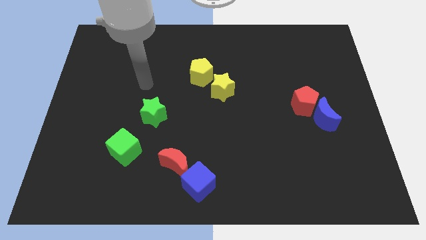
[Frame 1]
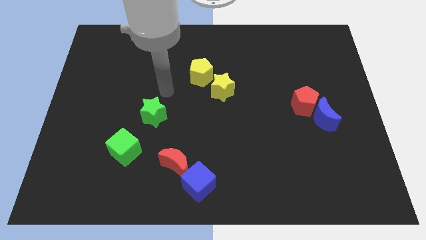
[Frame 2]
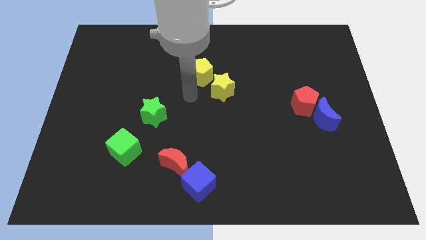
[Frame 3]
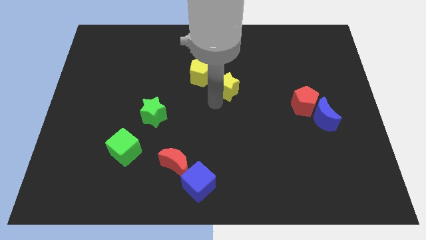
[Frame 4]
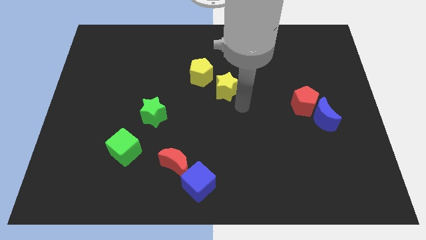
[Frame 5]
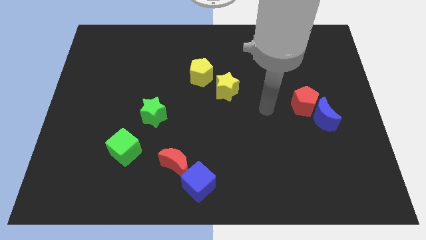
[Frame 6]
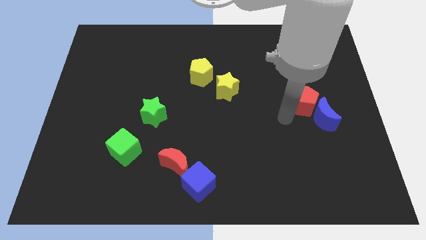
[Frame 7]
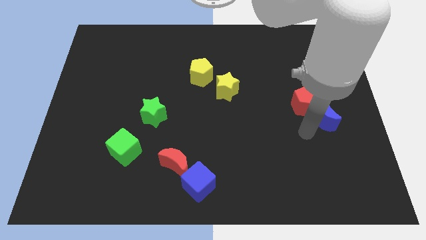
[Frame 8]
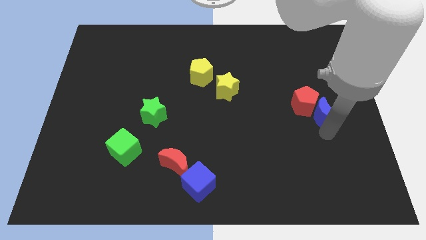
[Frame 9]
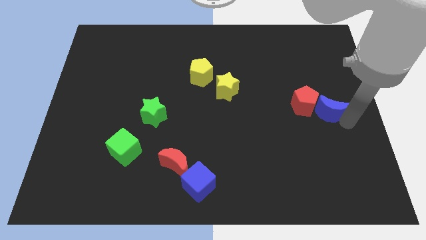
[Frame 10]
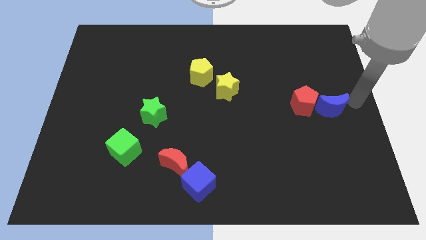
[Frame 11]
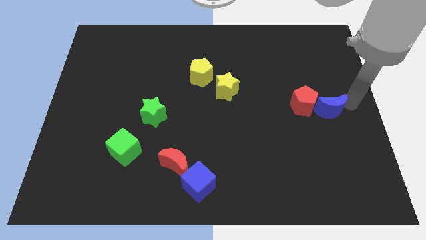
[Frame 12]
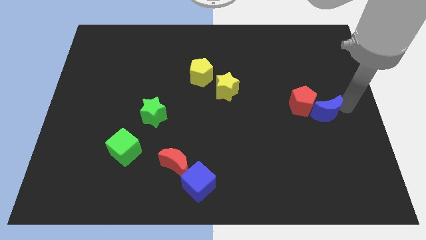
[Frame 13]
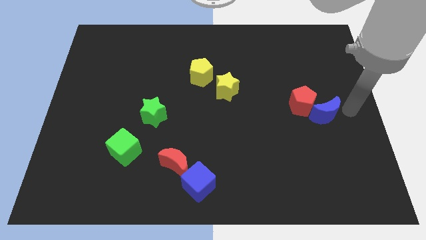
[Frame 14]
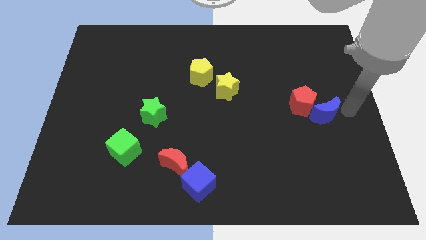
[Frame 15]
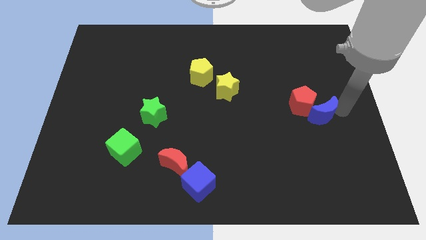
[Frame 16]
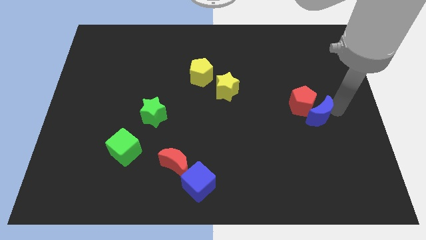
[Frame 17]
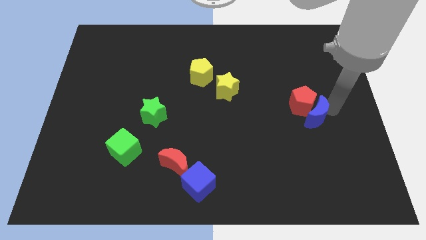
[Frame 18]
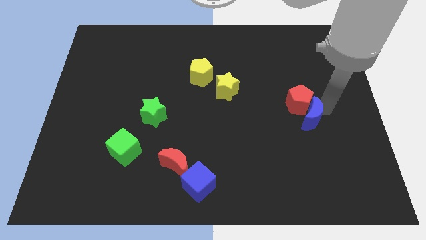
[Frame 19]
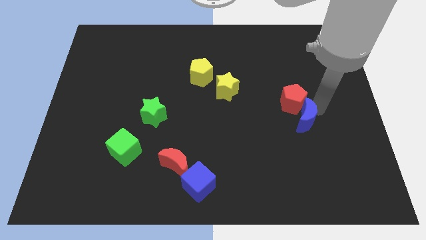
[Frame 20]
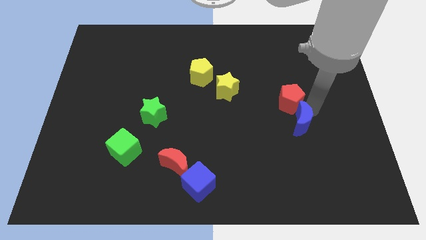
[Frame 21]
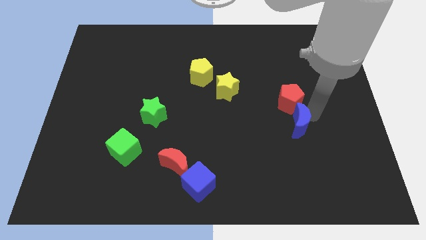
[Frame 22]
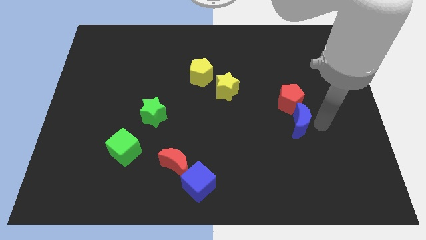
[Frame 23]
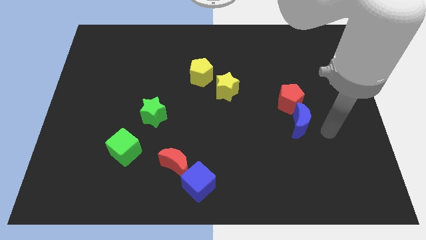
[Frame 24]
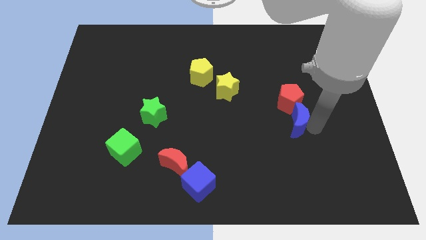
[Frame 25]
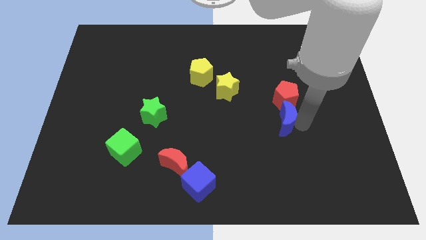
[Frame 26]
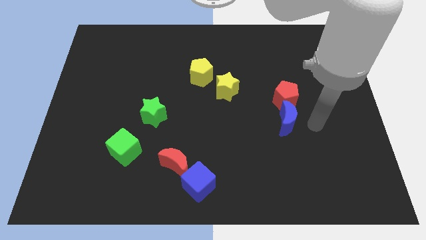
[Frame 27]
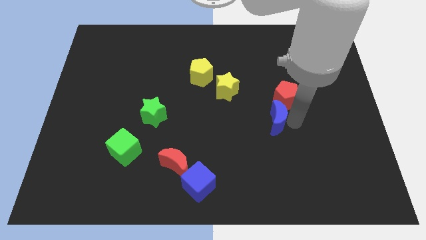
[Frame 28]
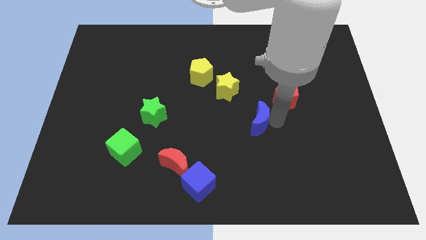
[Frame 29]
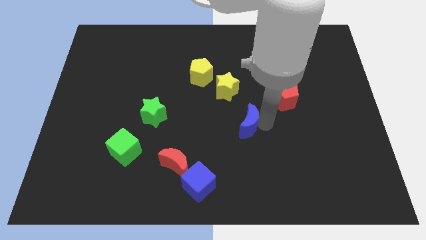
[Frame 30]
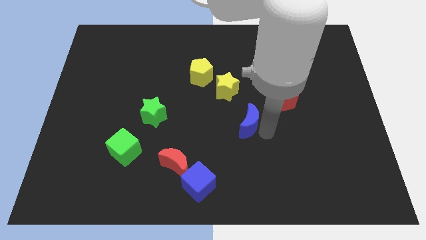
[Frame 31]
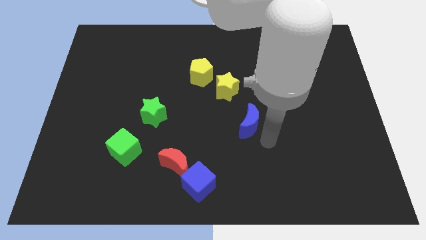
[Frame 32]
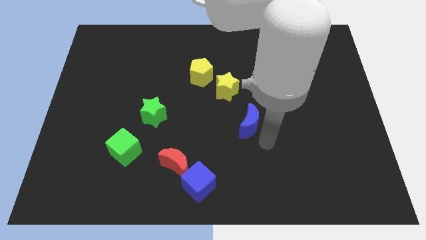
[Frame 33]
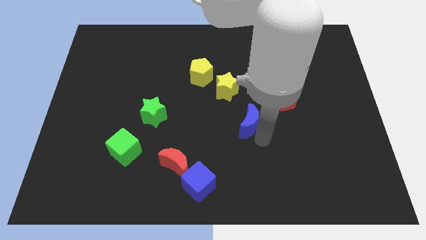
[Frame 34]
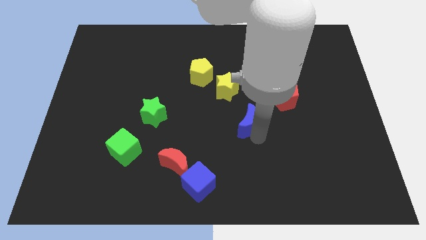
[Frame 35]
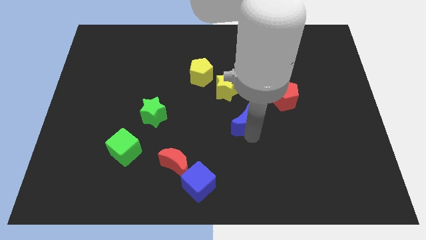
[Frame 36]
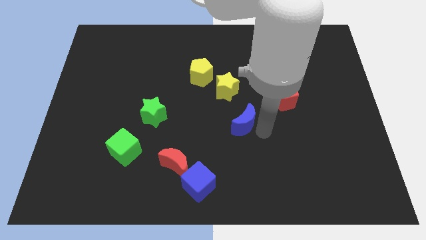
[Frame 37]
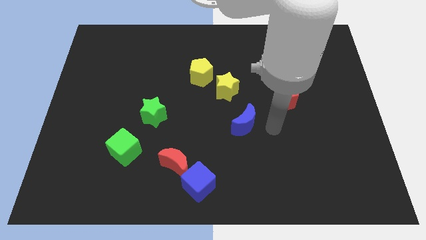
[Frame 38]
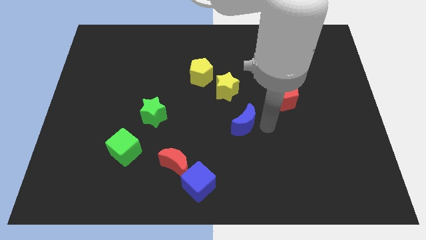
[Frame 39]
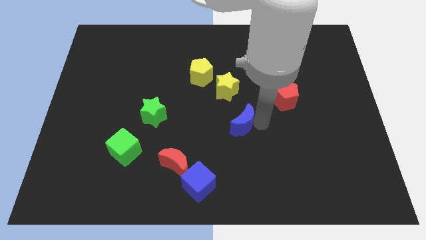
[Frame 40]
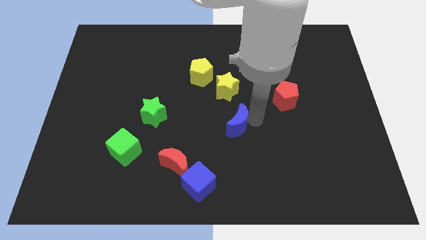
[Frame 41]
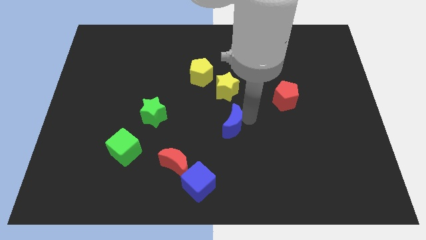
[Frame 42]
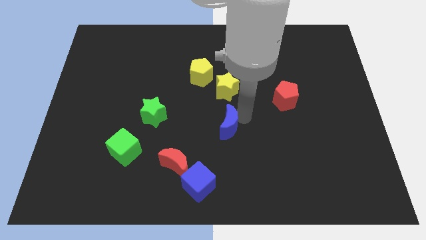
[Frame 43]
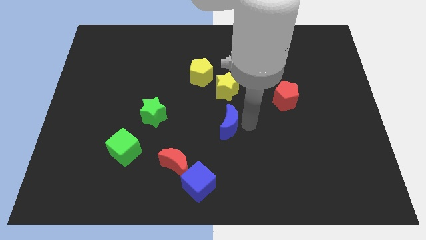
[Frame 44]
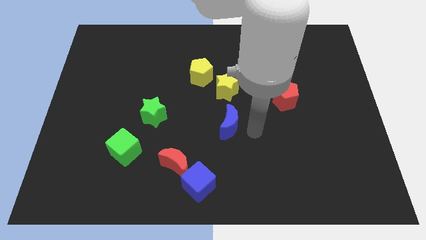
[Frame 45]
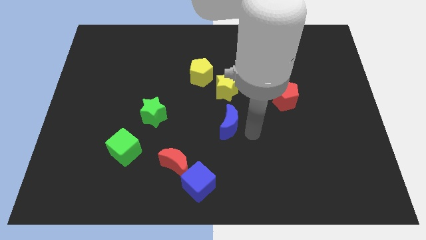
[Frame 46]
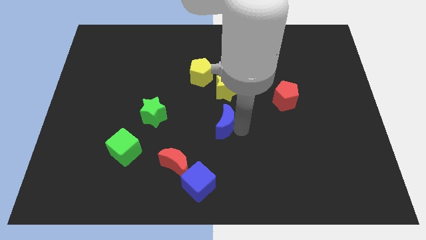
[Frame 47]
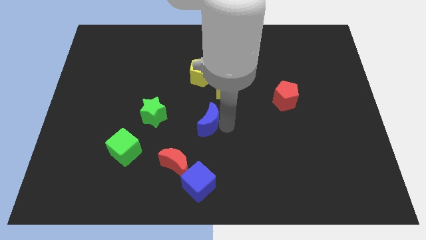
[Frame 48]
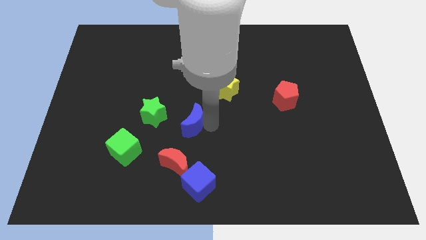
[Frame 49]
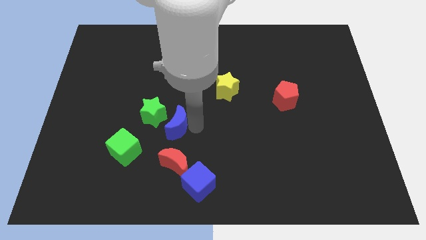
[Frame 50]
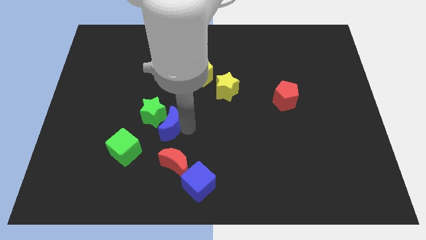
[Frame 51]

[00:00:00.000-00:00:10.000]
put the blue moon close to the green star

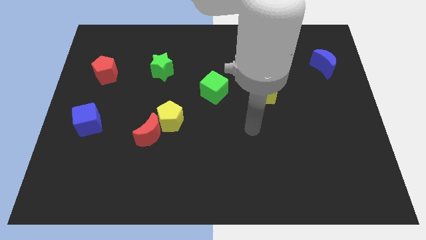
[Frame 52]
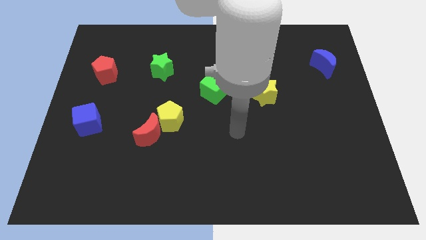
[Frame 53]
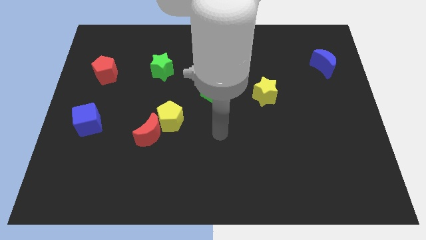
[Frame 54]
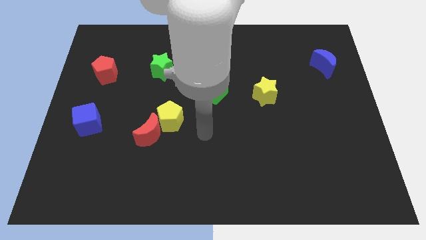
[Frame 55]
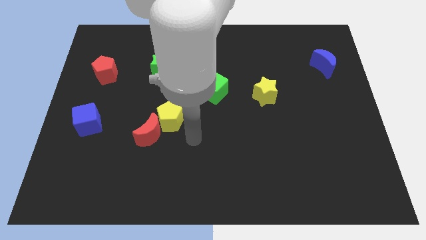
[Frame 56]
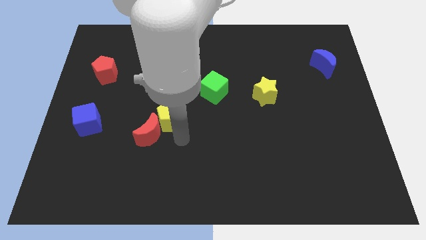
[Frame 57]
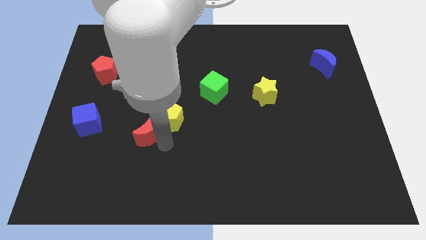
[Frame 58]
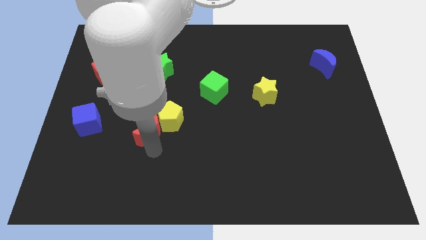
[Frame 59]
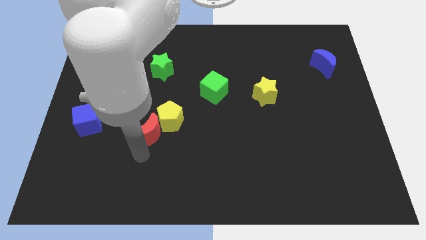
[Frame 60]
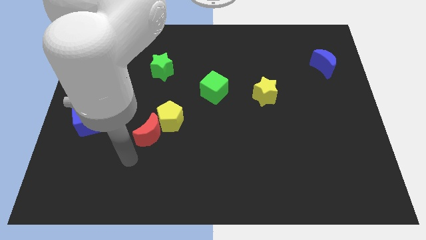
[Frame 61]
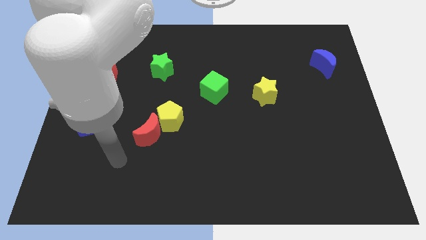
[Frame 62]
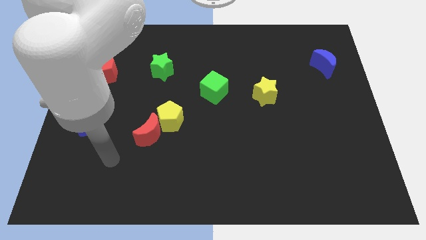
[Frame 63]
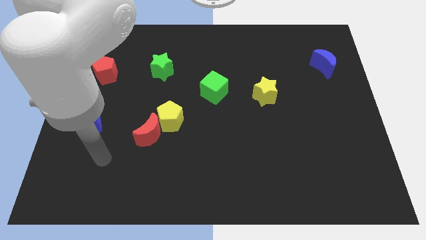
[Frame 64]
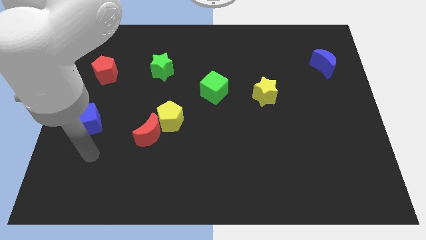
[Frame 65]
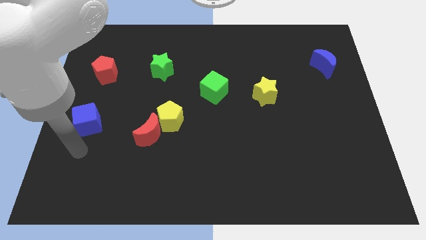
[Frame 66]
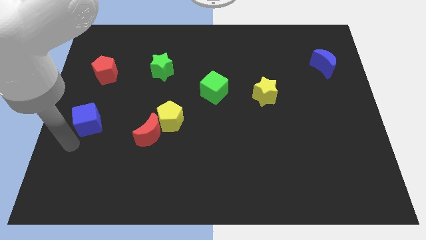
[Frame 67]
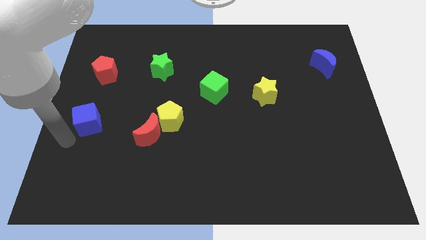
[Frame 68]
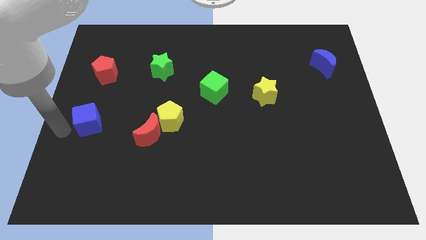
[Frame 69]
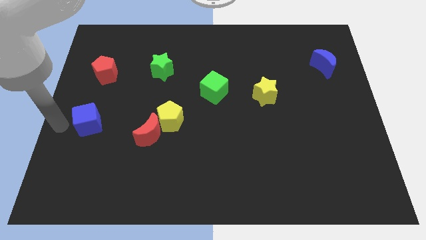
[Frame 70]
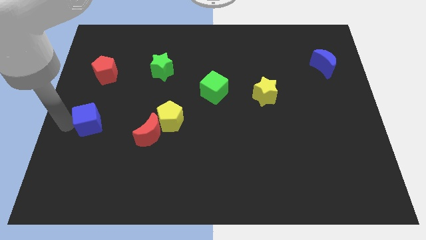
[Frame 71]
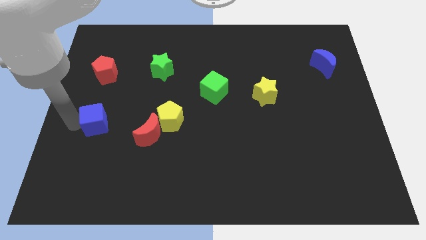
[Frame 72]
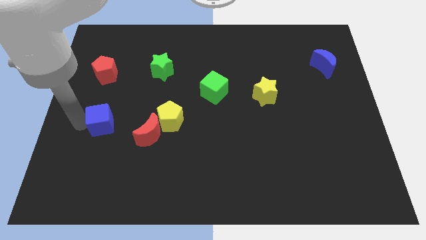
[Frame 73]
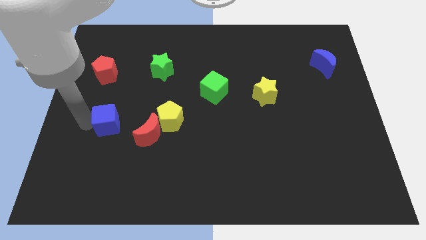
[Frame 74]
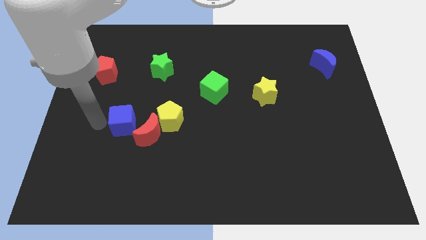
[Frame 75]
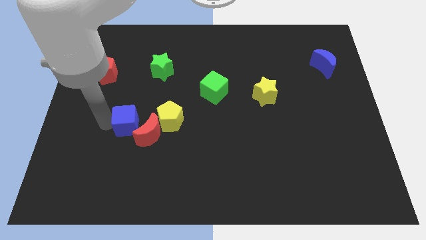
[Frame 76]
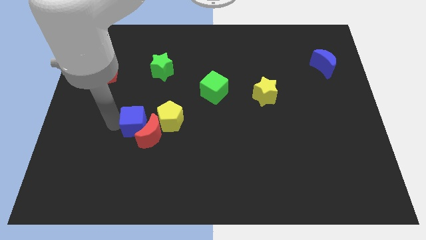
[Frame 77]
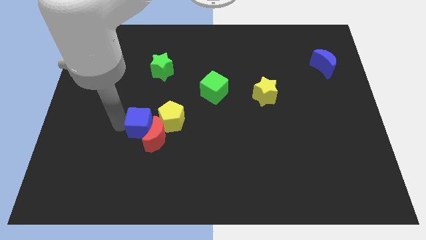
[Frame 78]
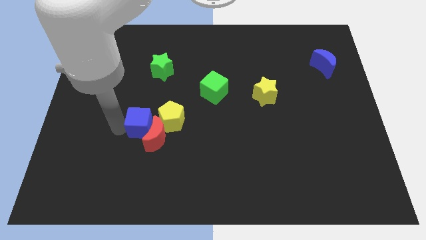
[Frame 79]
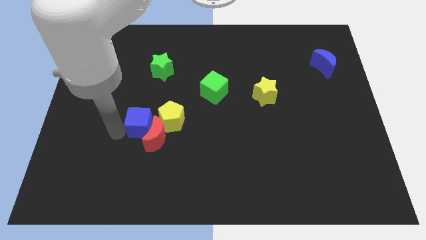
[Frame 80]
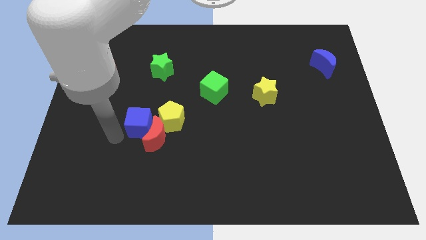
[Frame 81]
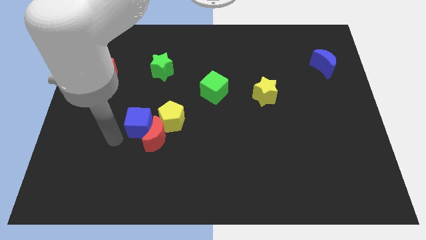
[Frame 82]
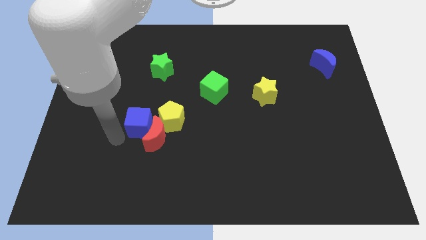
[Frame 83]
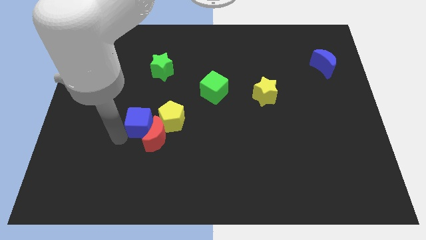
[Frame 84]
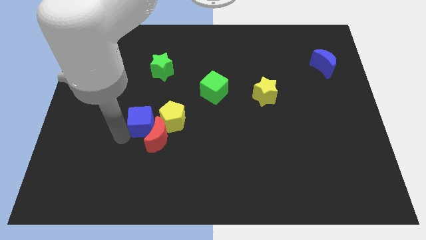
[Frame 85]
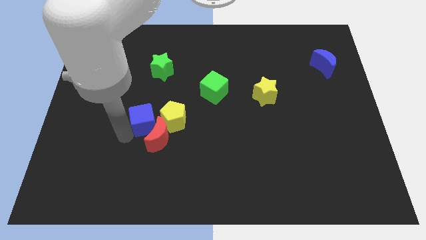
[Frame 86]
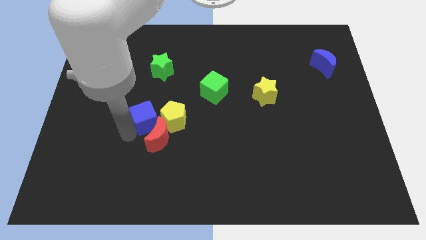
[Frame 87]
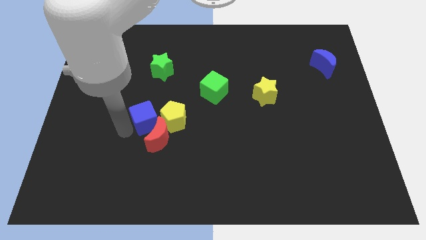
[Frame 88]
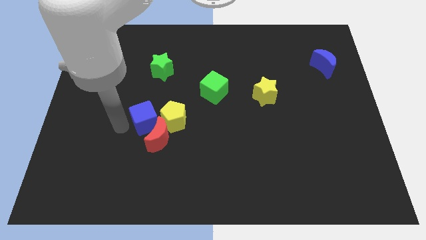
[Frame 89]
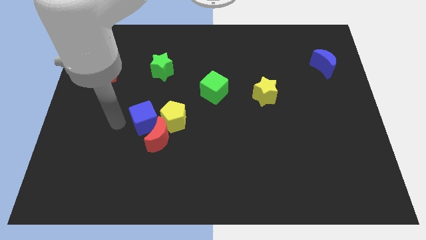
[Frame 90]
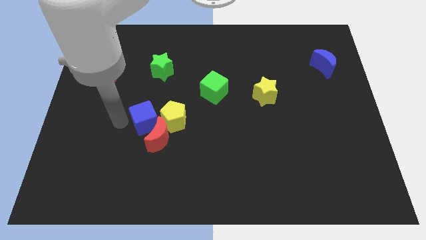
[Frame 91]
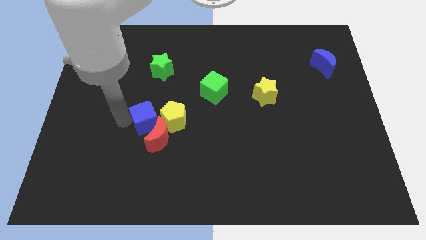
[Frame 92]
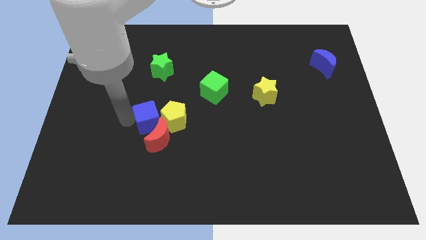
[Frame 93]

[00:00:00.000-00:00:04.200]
put the blue cube close to the yellow pentagon
